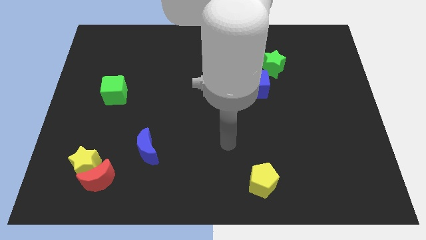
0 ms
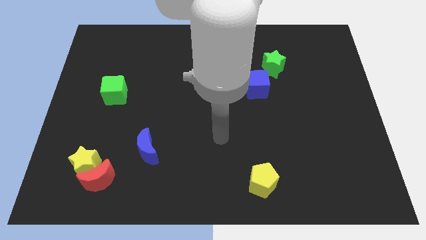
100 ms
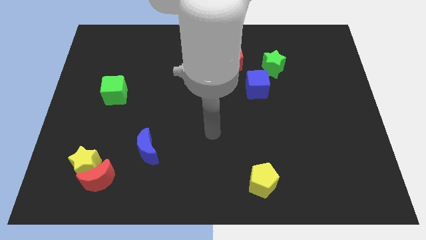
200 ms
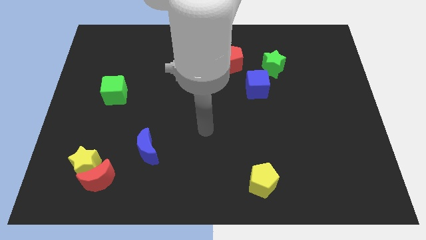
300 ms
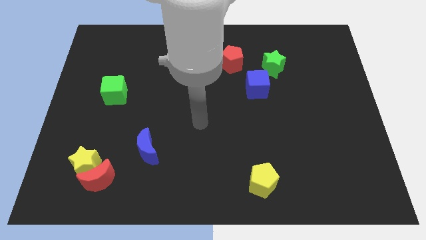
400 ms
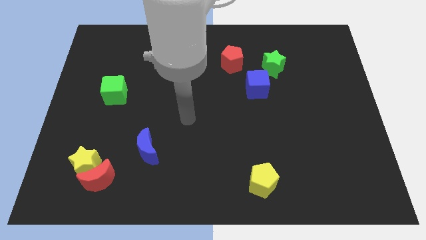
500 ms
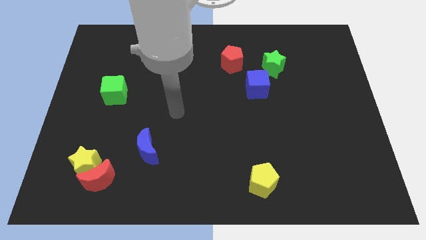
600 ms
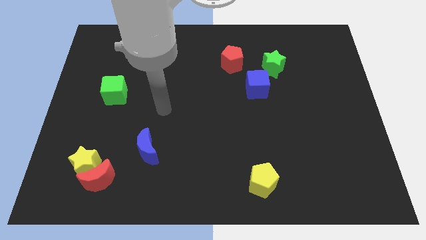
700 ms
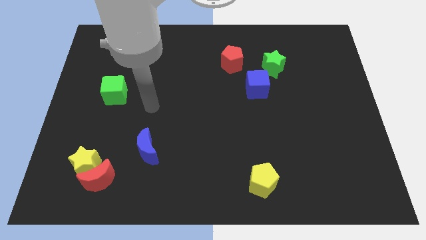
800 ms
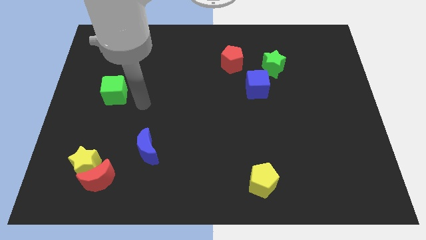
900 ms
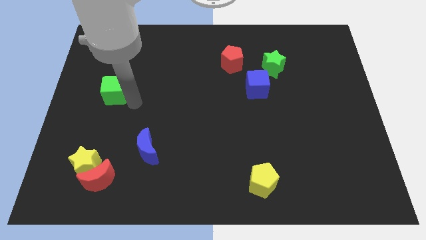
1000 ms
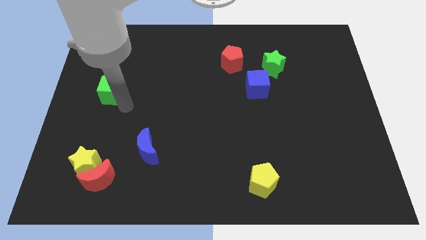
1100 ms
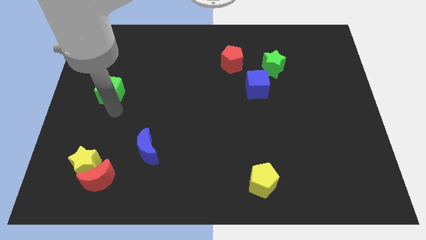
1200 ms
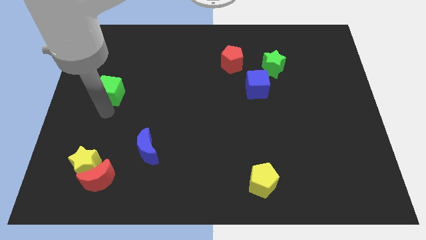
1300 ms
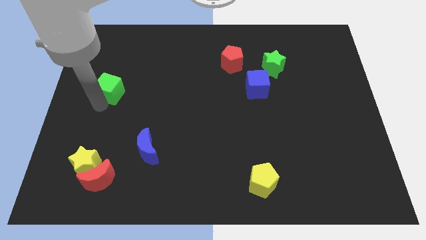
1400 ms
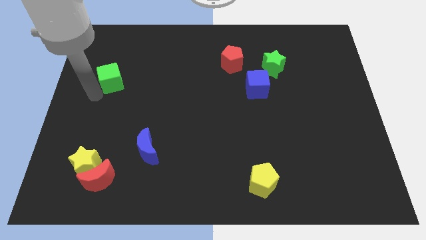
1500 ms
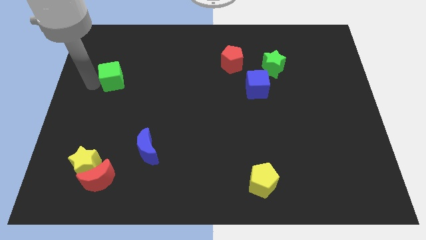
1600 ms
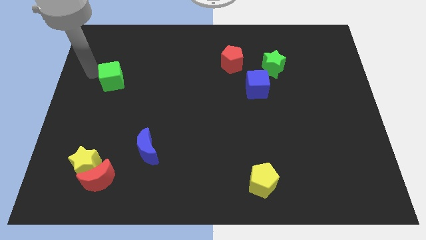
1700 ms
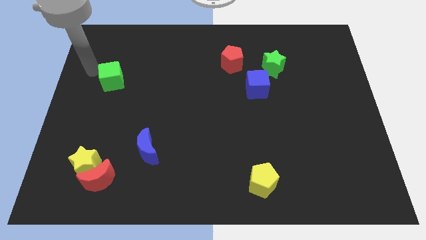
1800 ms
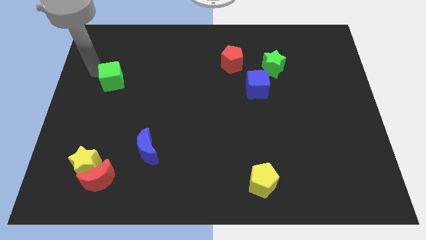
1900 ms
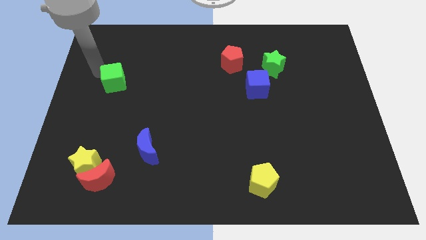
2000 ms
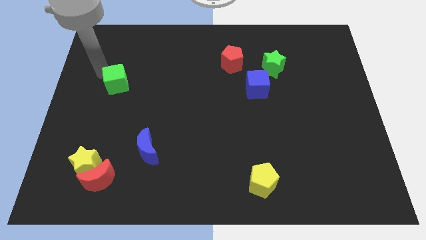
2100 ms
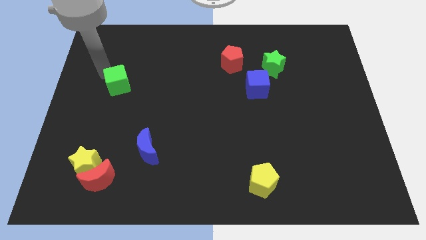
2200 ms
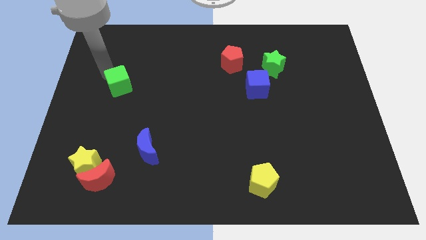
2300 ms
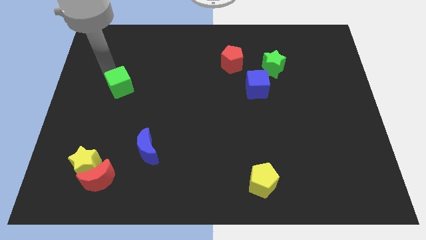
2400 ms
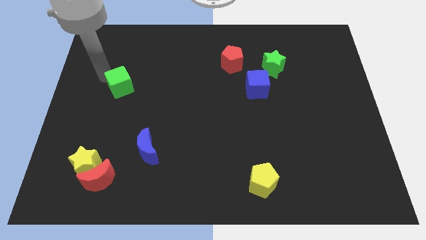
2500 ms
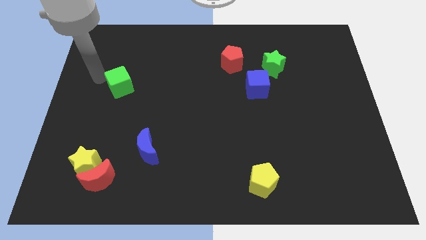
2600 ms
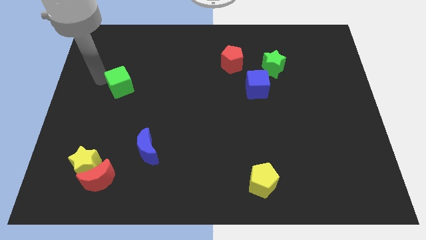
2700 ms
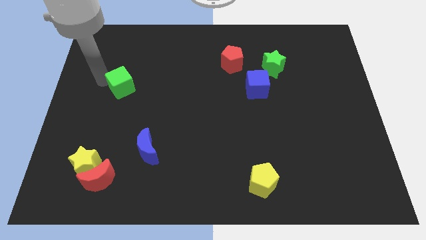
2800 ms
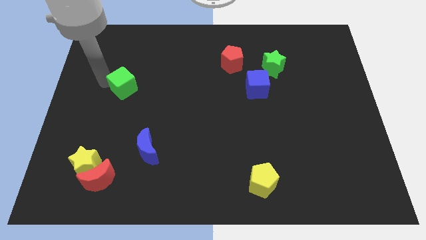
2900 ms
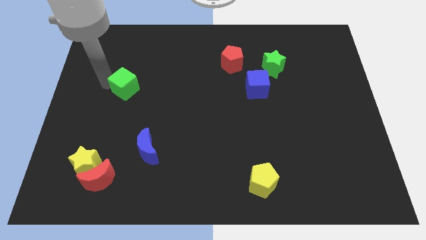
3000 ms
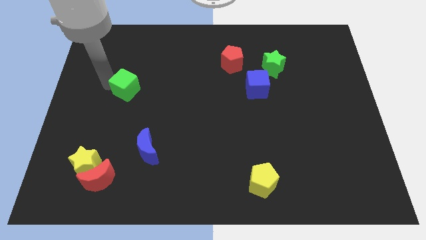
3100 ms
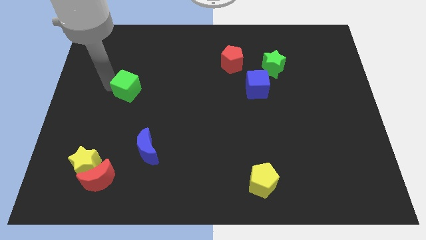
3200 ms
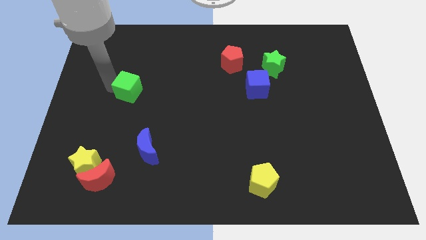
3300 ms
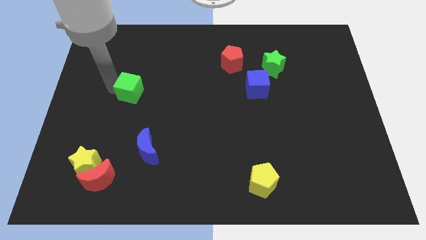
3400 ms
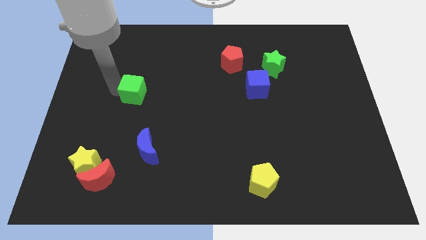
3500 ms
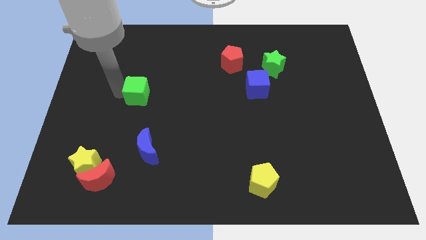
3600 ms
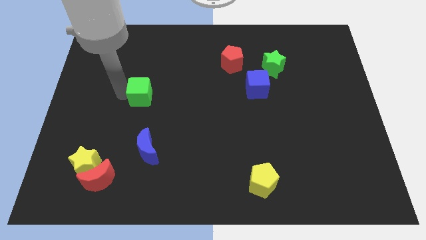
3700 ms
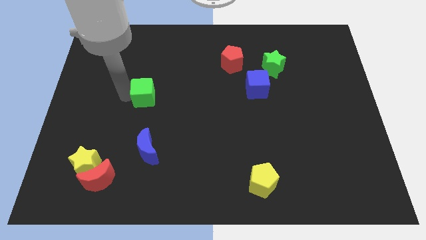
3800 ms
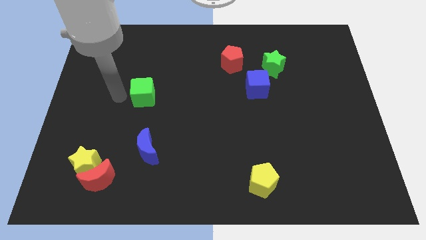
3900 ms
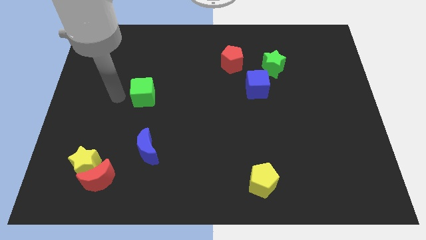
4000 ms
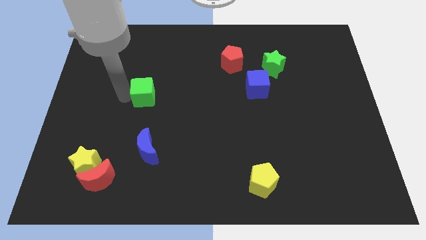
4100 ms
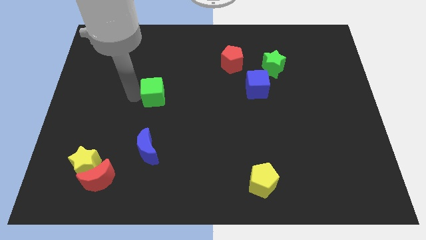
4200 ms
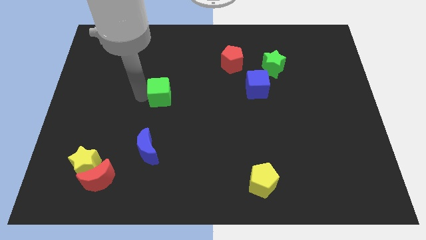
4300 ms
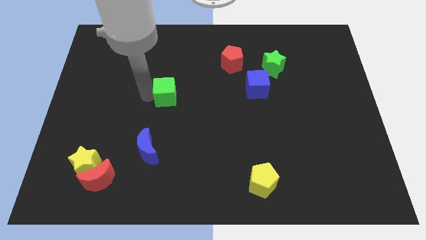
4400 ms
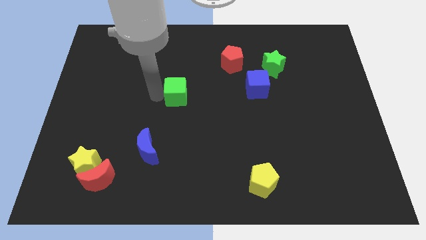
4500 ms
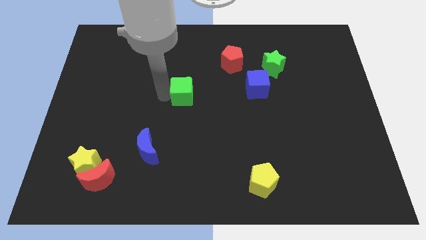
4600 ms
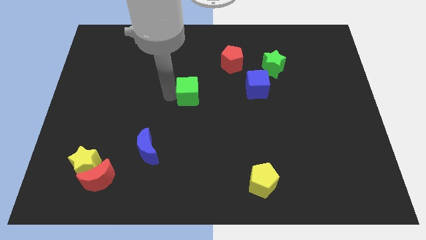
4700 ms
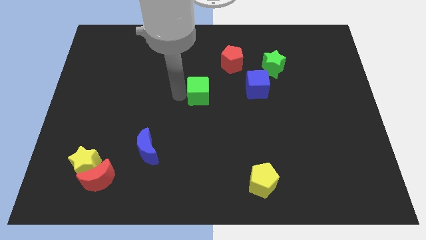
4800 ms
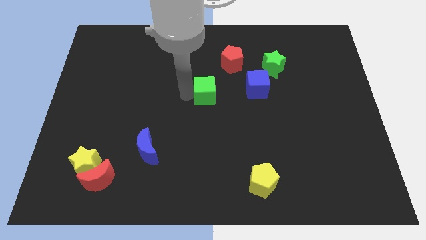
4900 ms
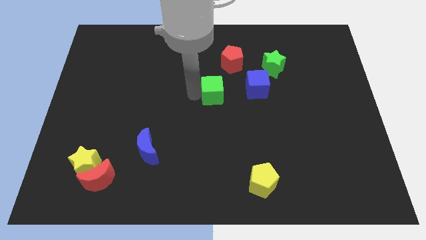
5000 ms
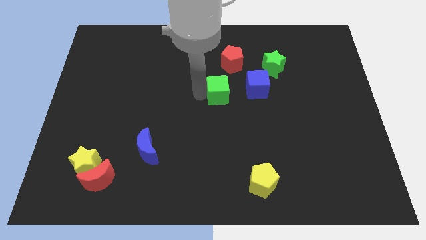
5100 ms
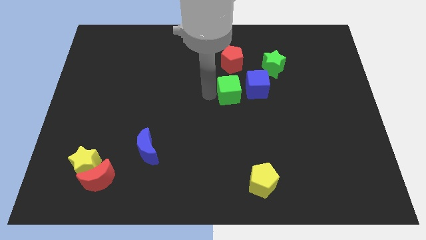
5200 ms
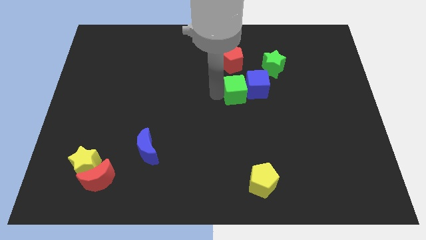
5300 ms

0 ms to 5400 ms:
move the green cube to the blue cube

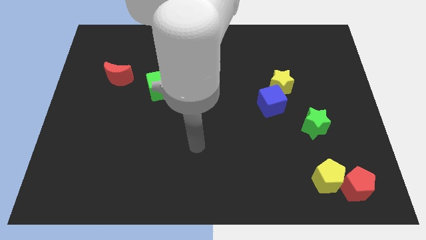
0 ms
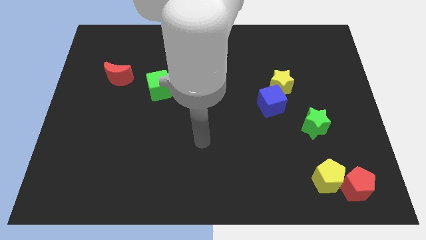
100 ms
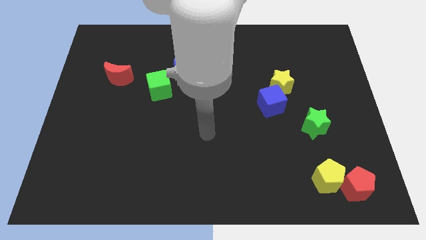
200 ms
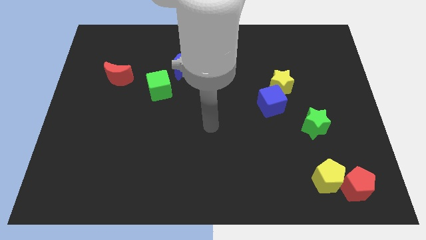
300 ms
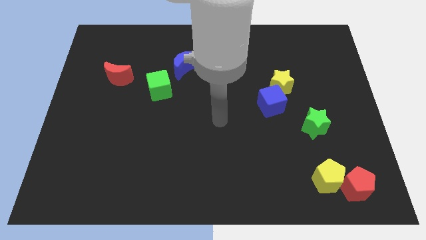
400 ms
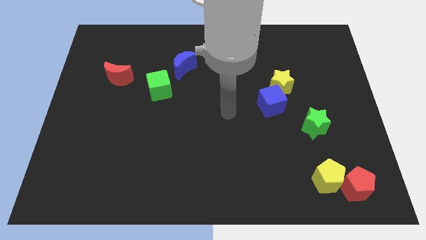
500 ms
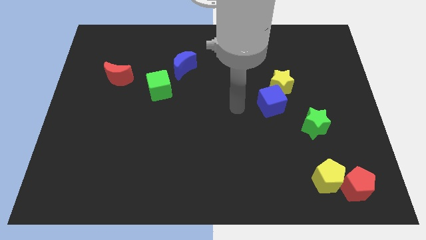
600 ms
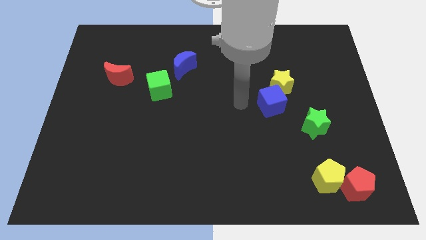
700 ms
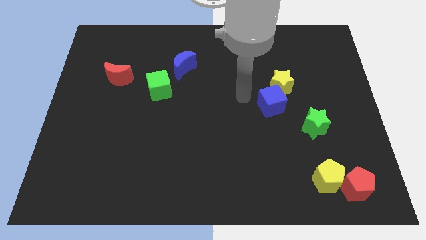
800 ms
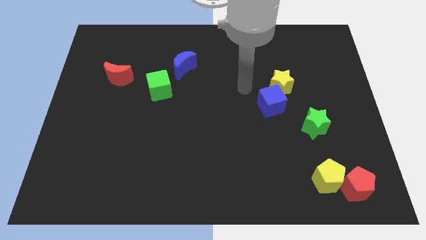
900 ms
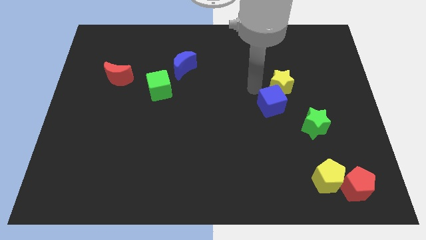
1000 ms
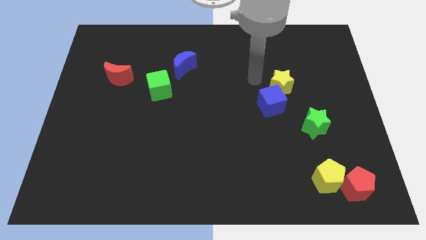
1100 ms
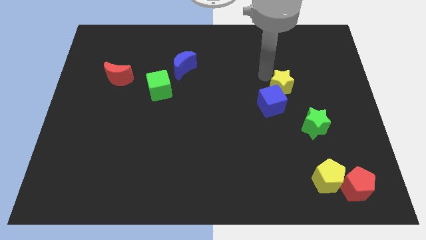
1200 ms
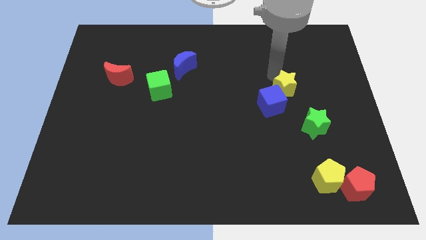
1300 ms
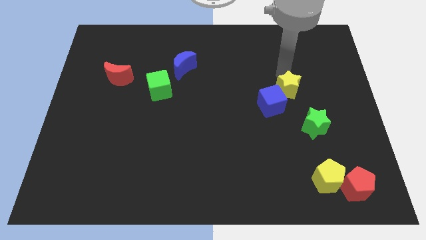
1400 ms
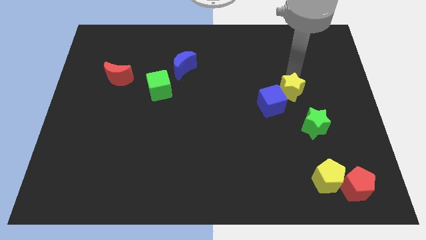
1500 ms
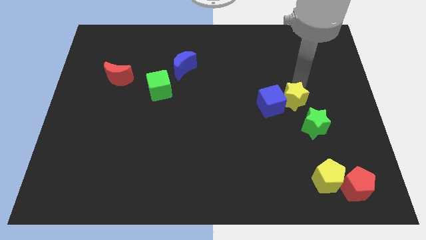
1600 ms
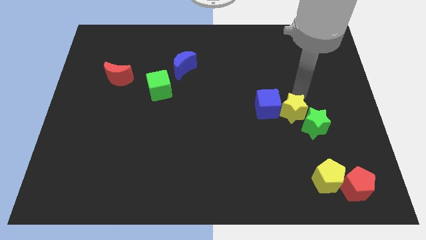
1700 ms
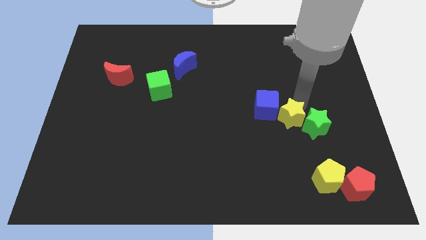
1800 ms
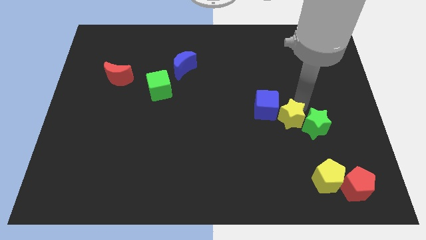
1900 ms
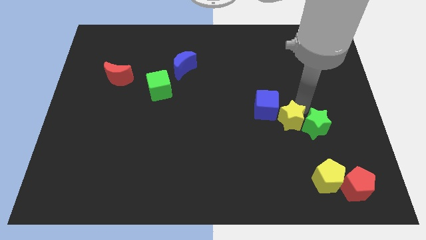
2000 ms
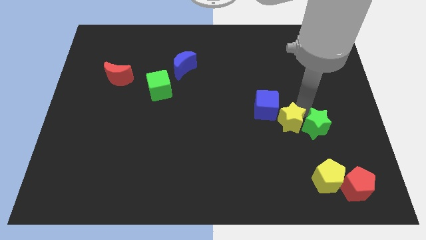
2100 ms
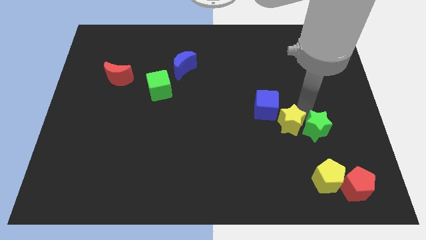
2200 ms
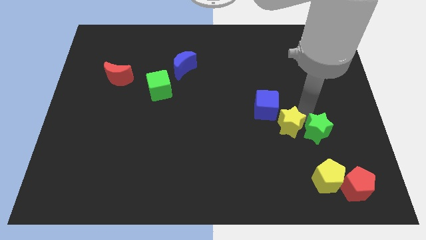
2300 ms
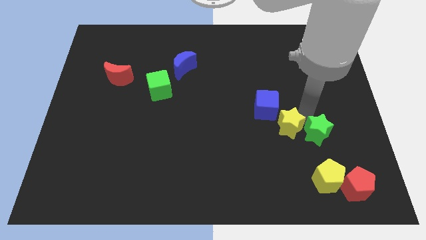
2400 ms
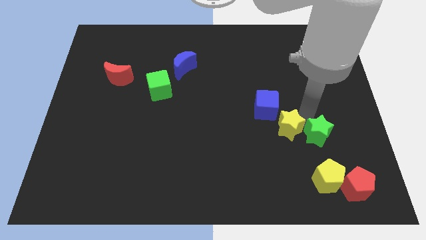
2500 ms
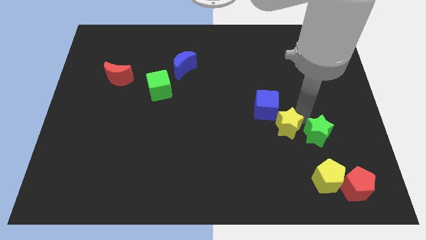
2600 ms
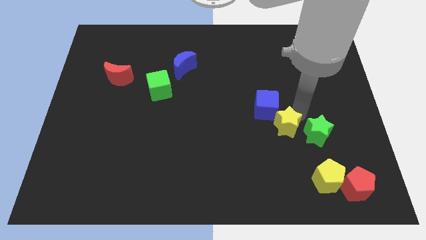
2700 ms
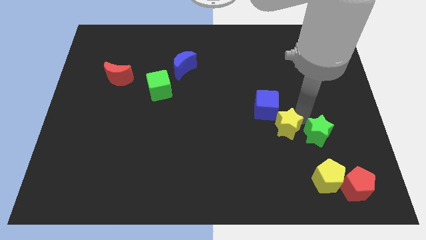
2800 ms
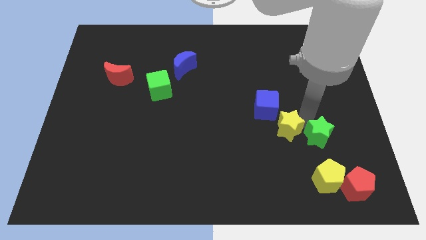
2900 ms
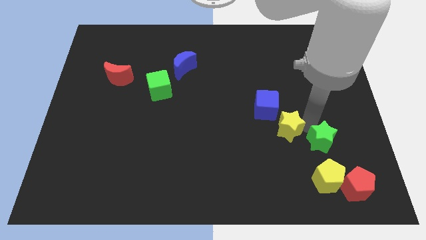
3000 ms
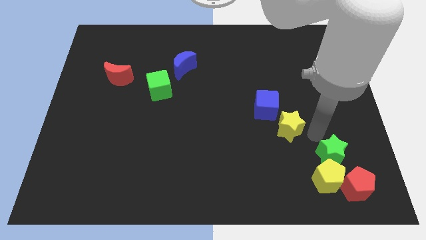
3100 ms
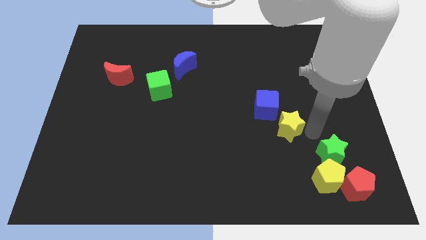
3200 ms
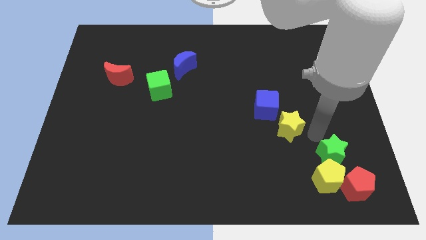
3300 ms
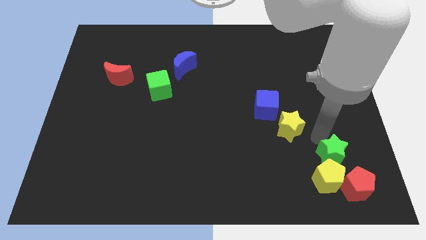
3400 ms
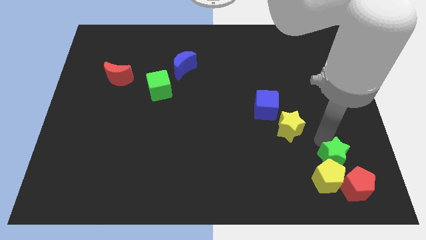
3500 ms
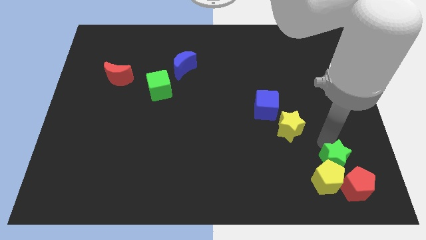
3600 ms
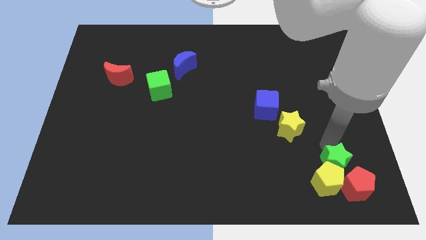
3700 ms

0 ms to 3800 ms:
put the green star towards the red pentagon
